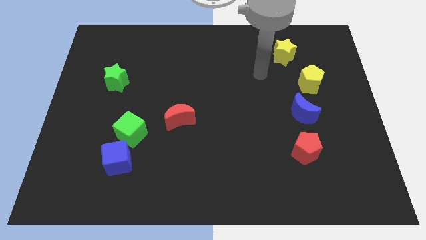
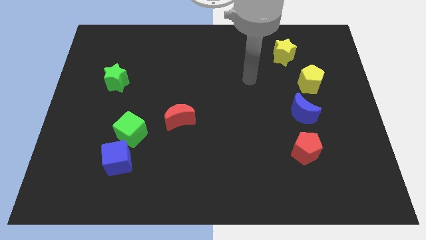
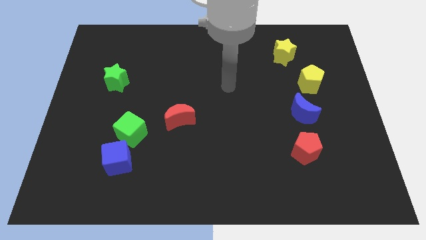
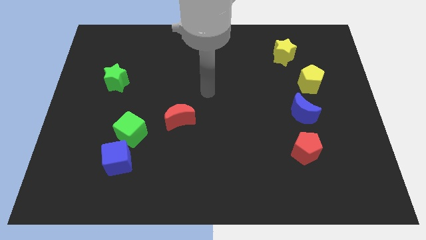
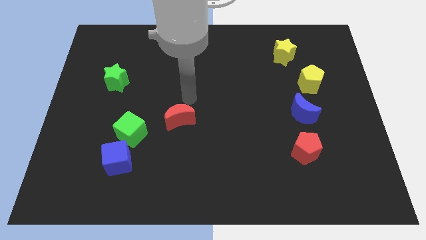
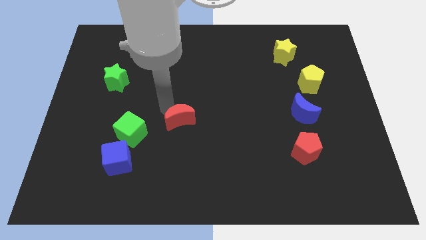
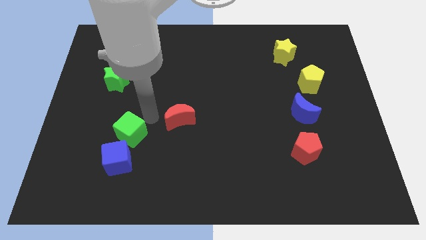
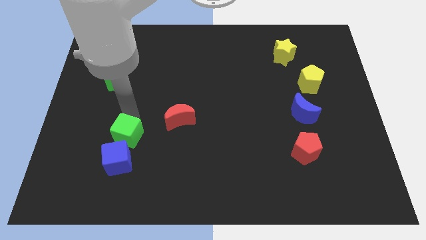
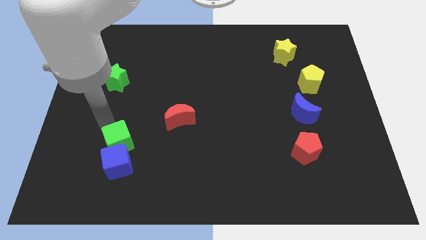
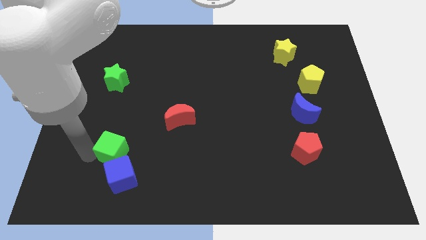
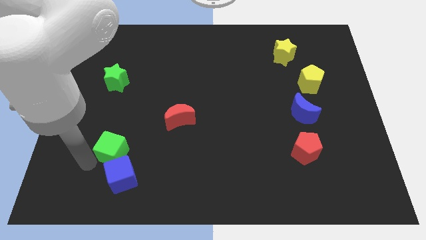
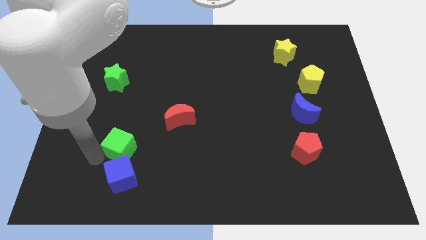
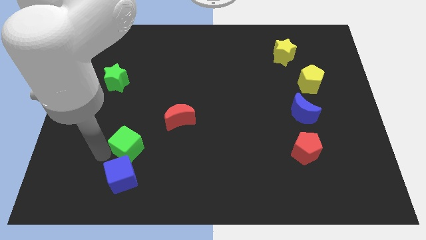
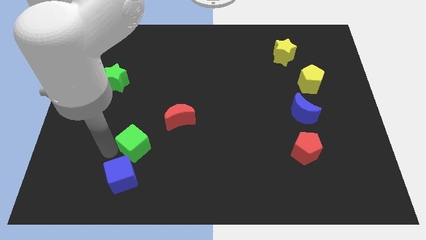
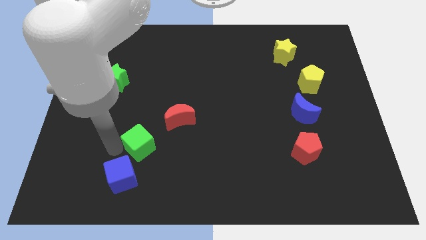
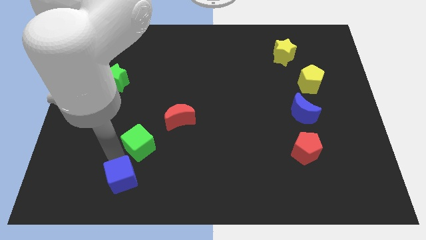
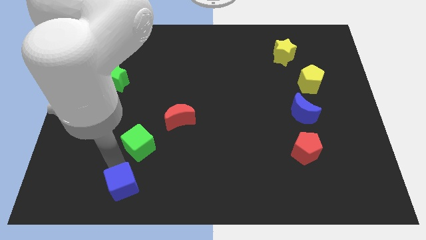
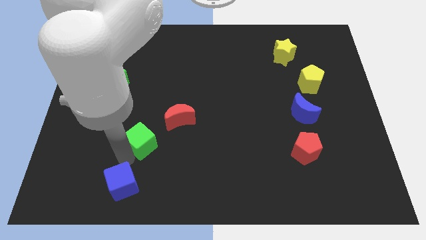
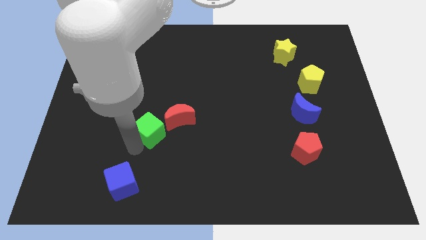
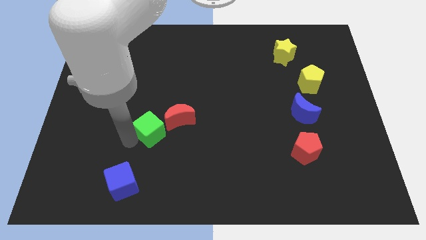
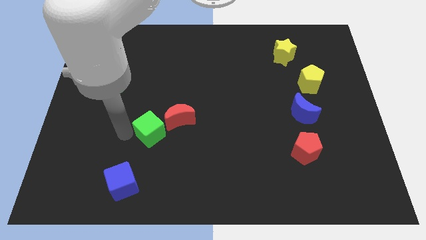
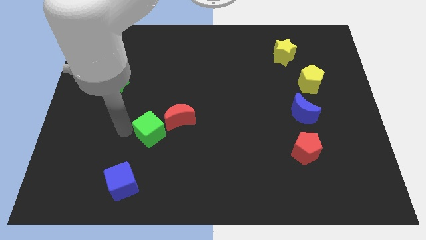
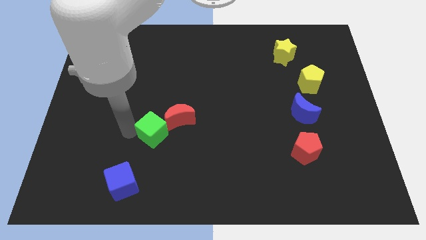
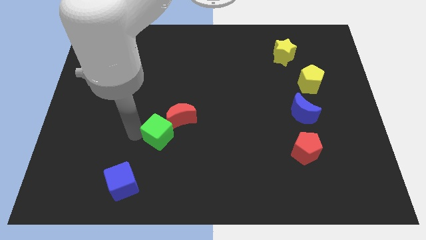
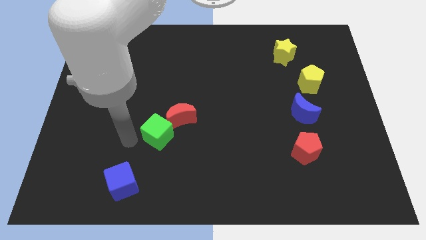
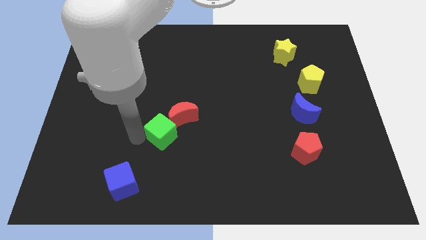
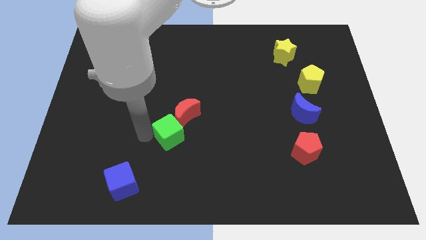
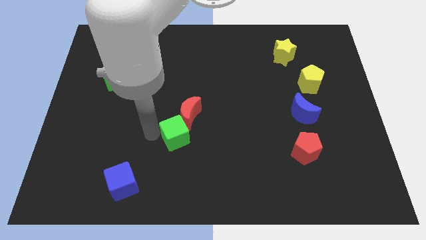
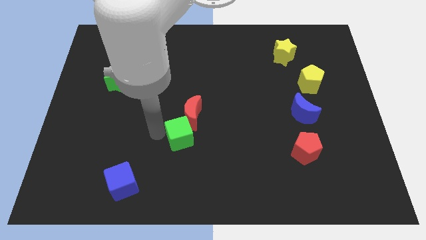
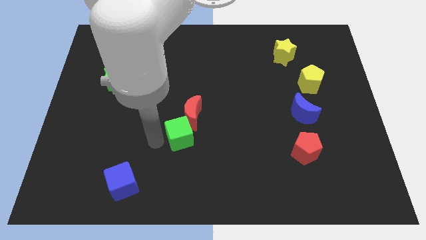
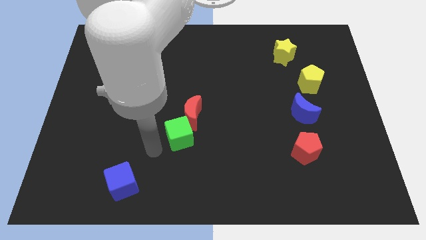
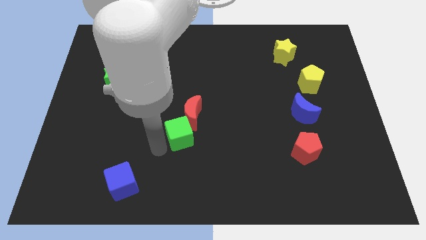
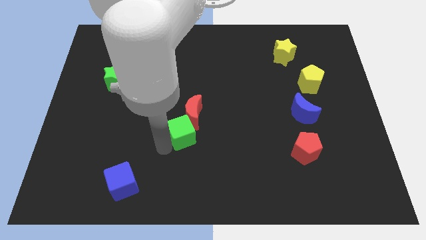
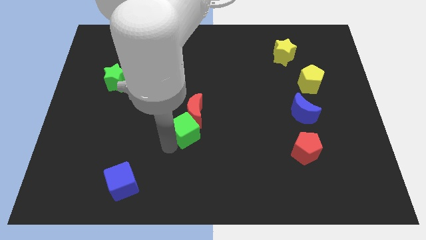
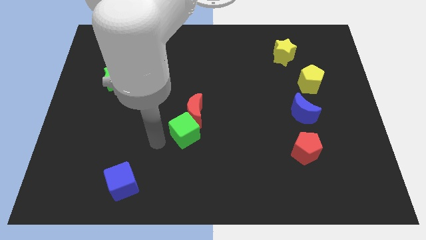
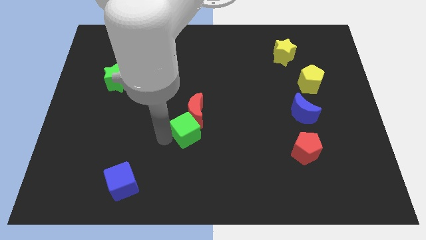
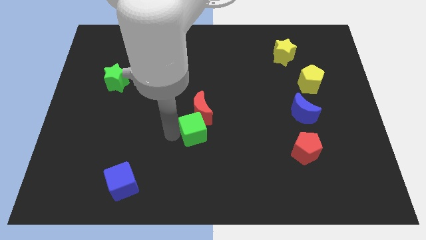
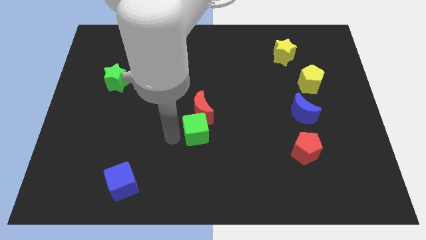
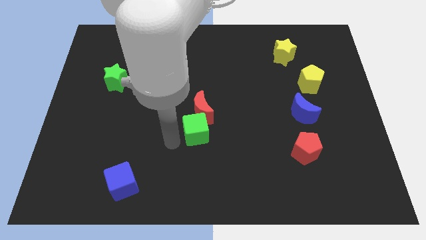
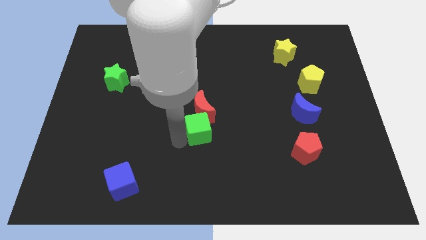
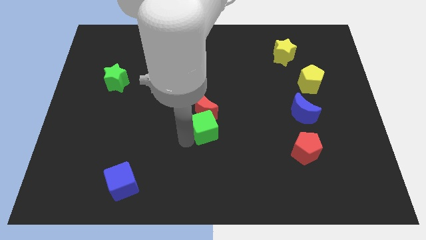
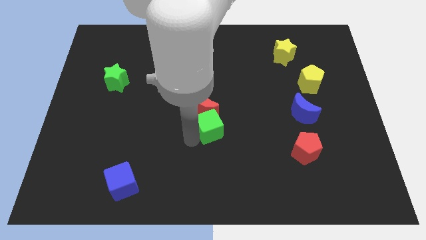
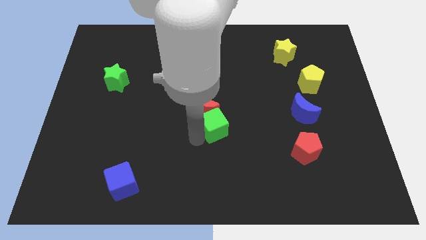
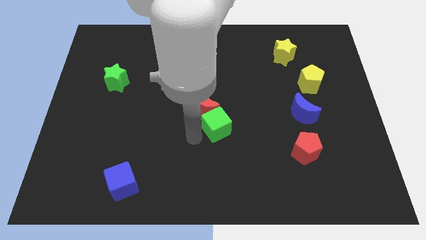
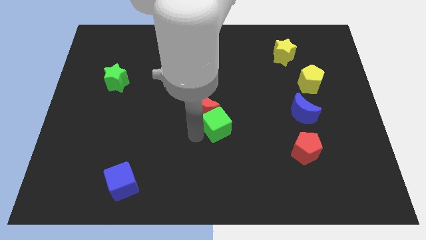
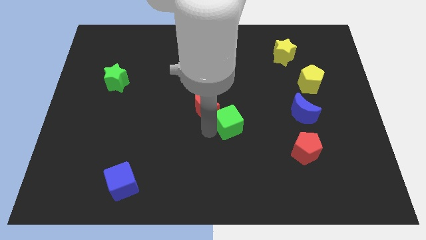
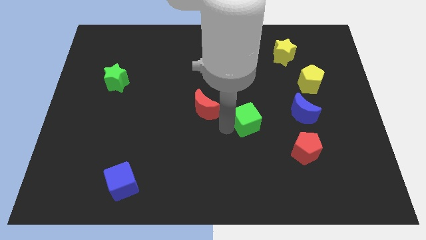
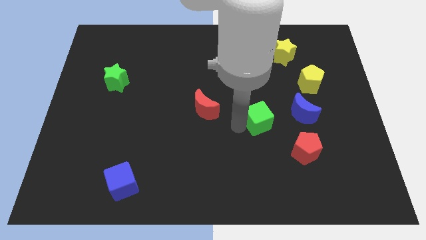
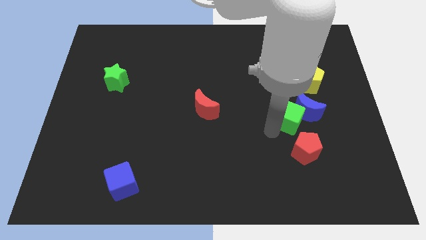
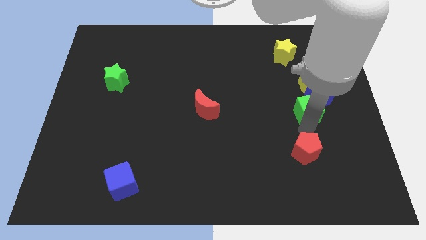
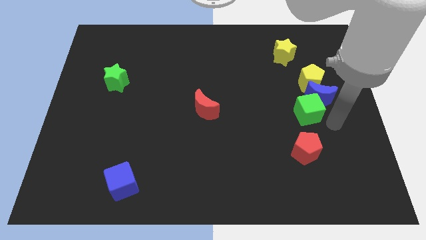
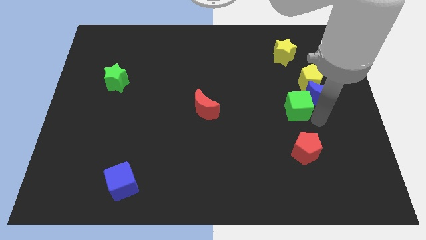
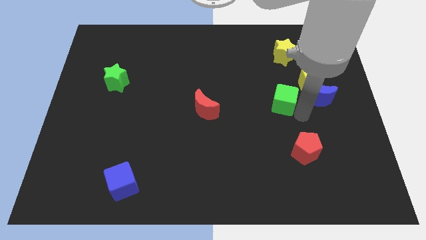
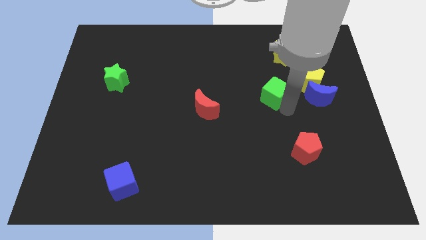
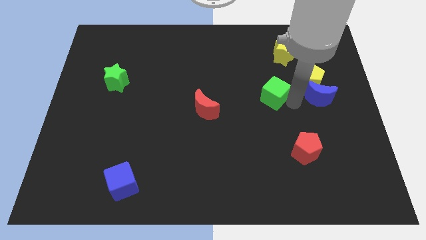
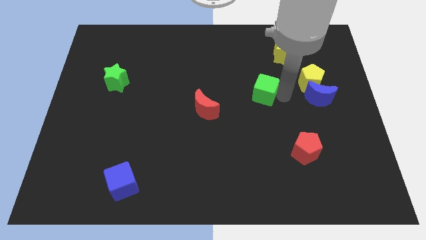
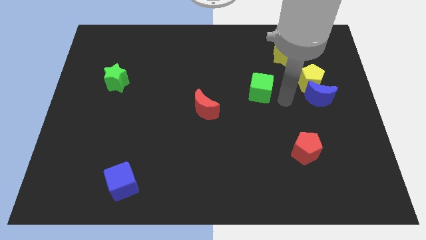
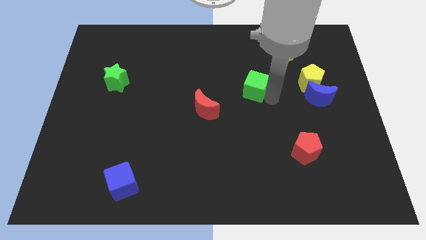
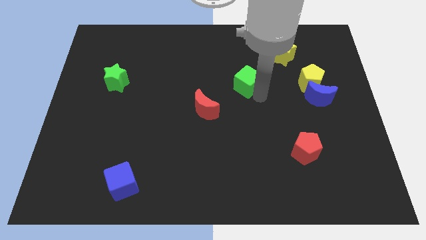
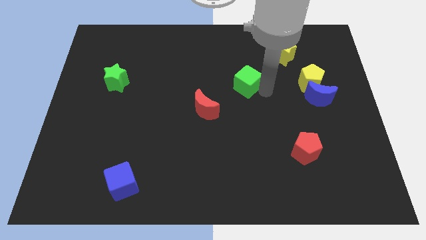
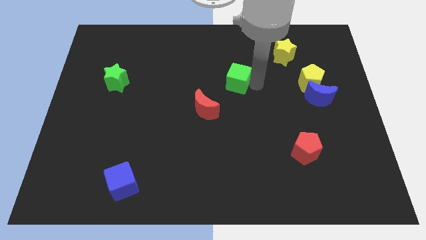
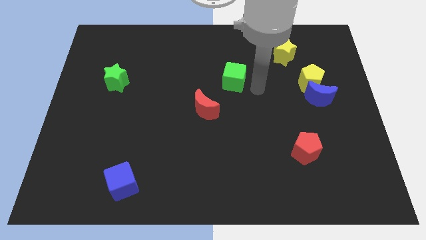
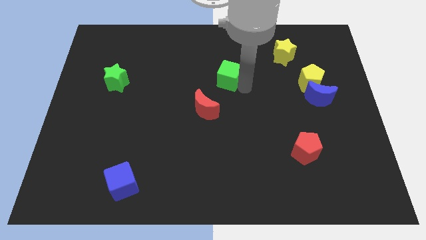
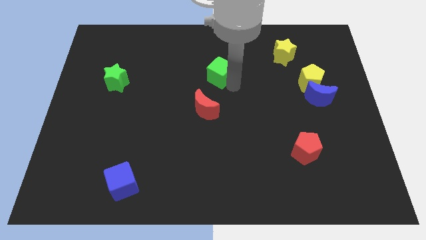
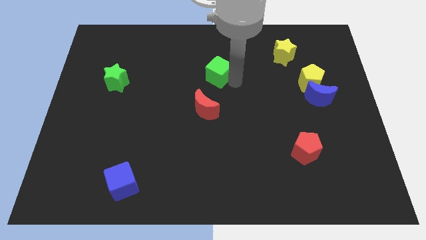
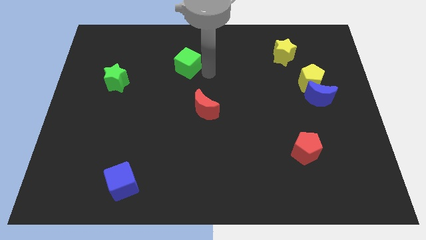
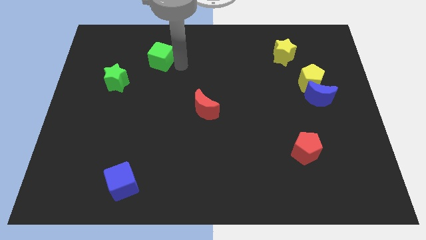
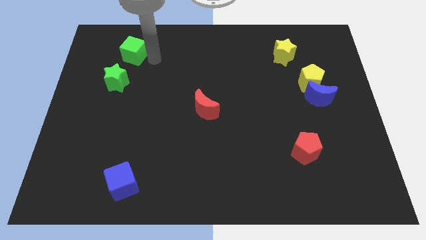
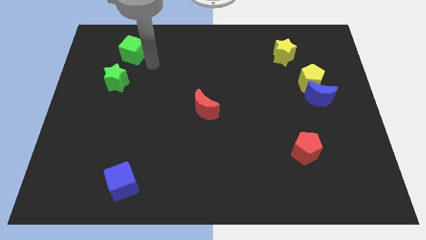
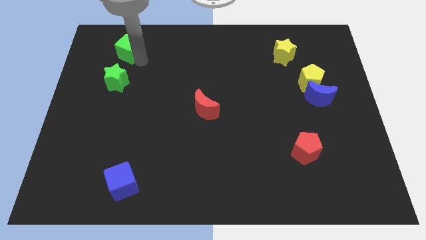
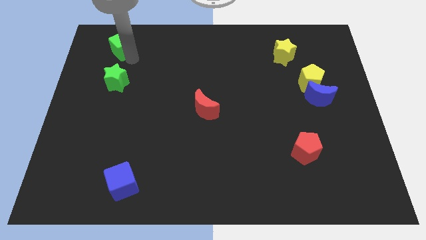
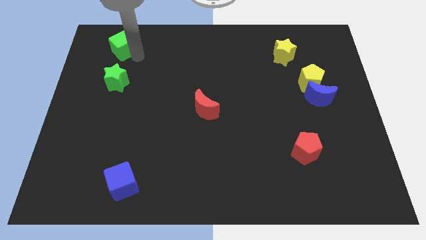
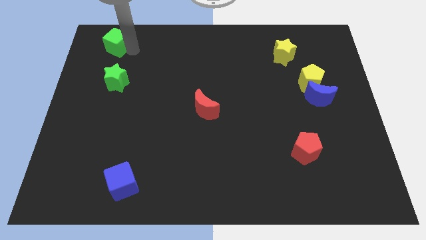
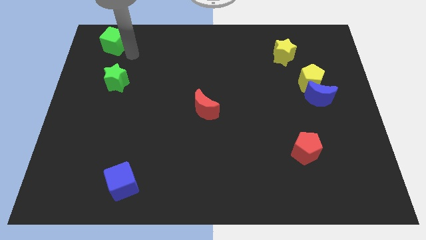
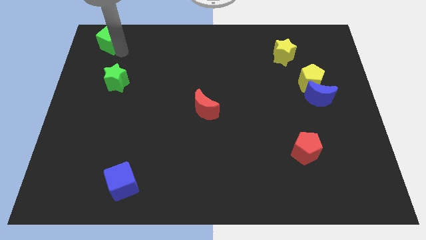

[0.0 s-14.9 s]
slide the green cube to the top left
